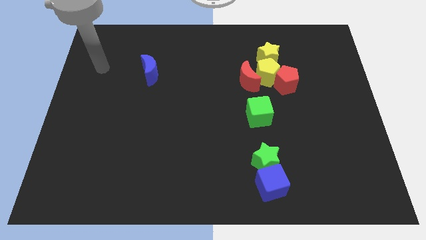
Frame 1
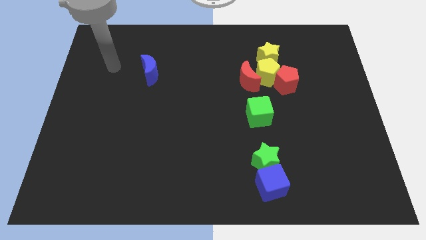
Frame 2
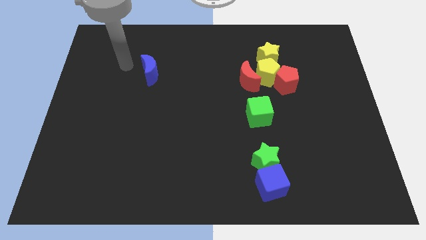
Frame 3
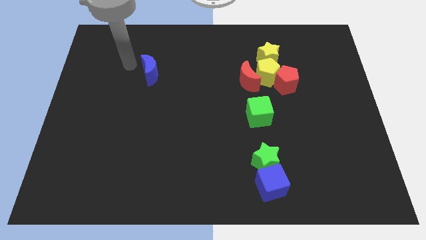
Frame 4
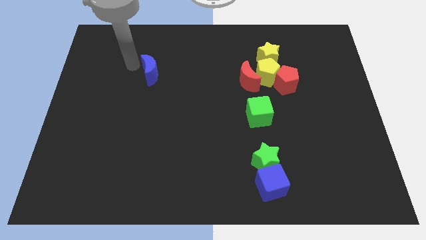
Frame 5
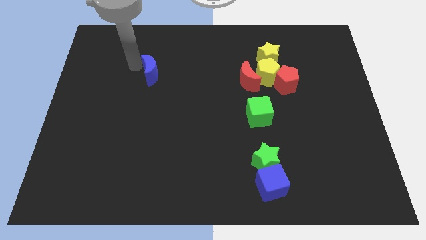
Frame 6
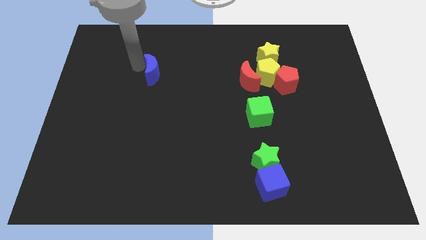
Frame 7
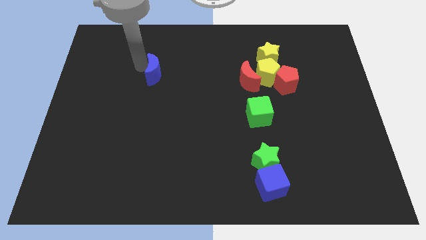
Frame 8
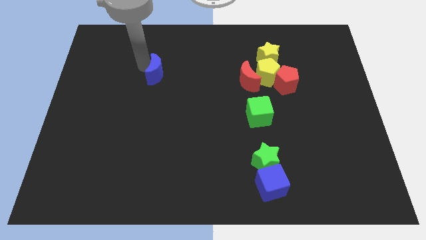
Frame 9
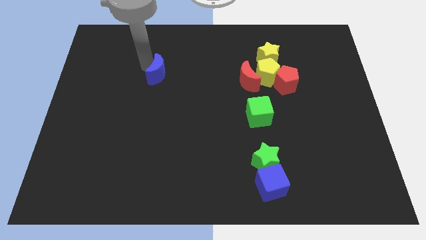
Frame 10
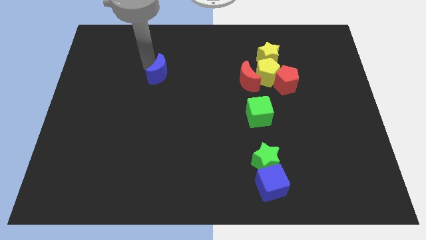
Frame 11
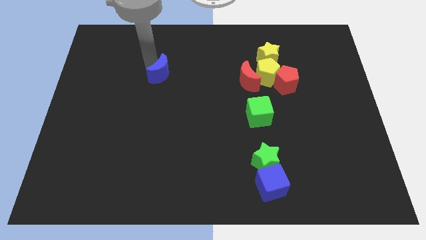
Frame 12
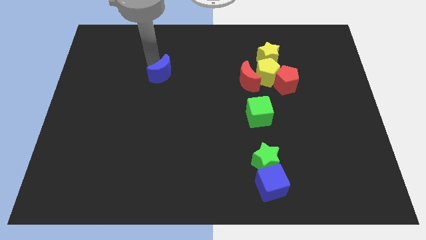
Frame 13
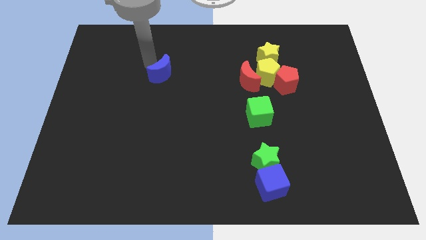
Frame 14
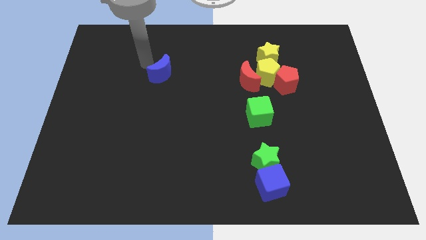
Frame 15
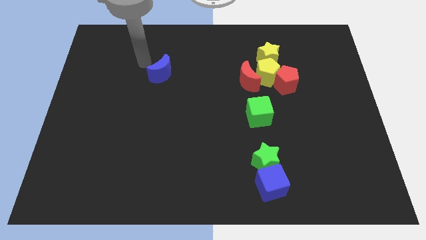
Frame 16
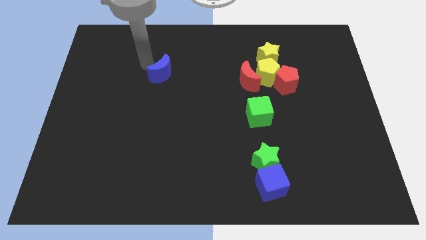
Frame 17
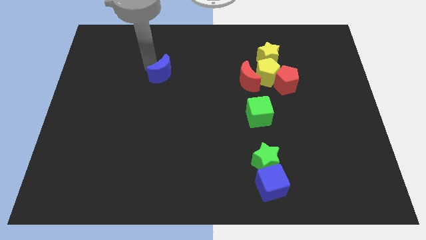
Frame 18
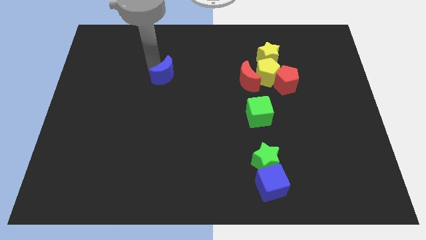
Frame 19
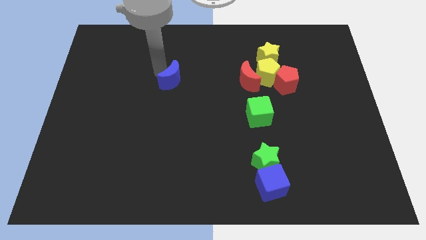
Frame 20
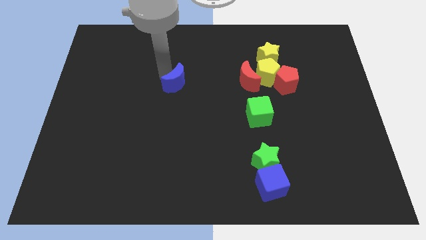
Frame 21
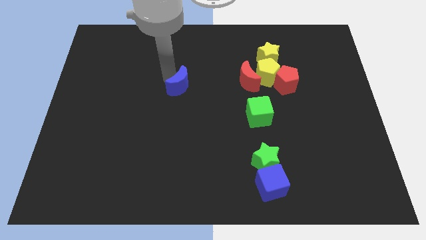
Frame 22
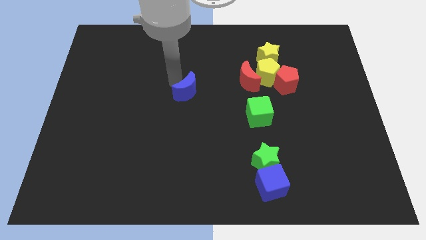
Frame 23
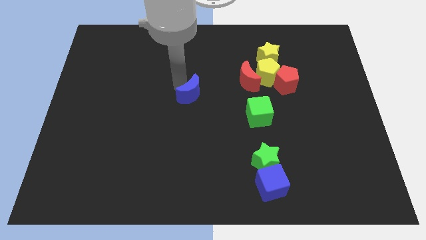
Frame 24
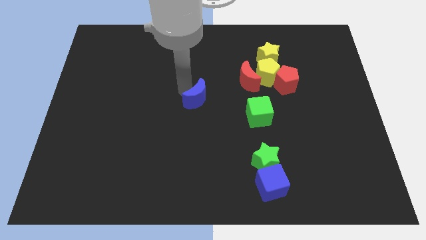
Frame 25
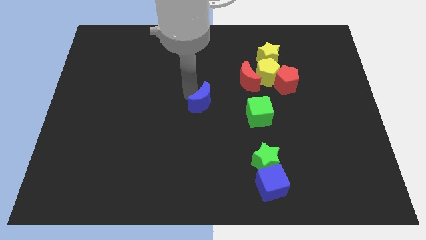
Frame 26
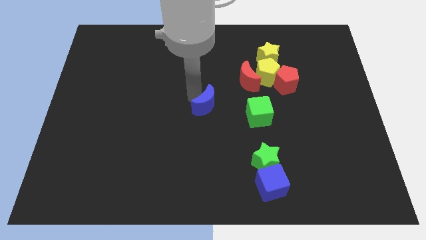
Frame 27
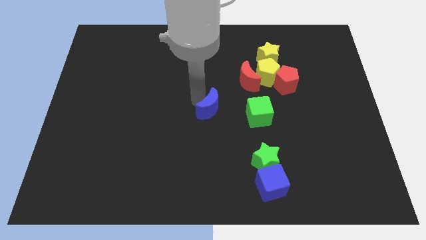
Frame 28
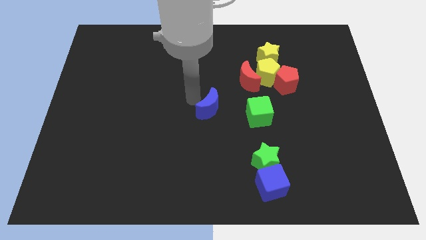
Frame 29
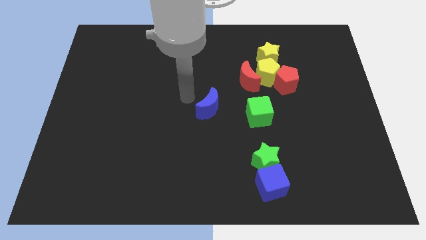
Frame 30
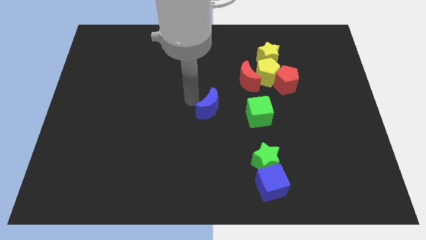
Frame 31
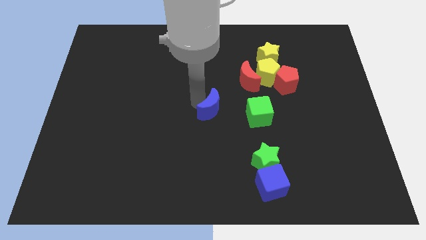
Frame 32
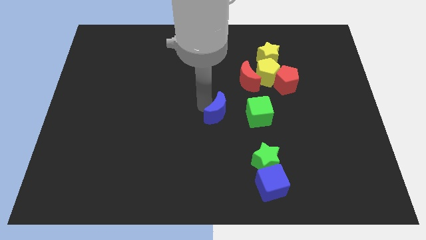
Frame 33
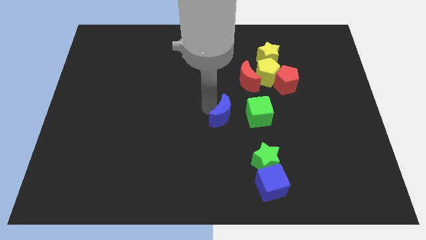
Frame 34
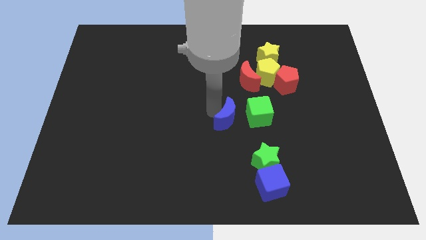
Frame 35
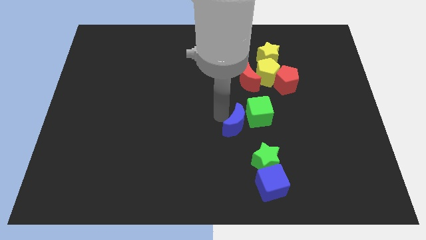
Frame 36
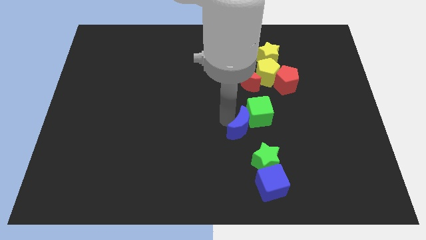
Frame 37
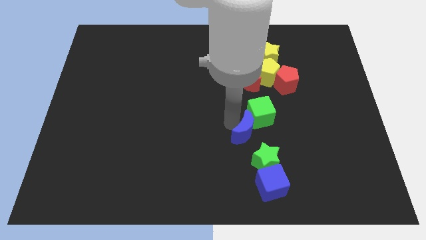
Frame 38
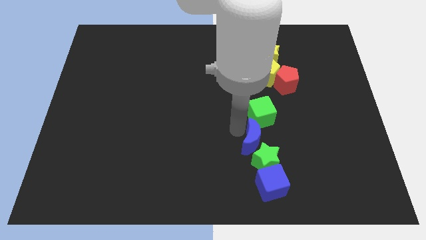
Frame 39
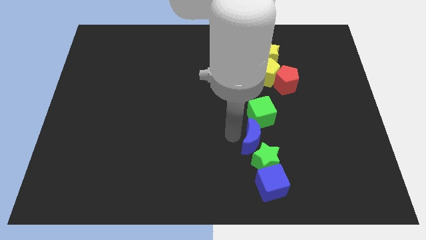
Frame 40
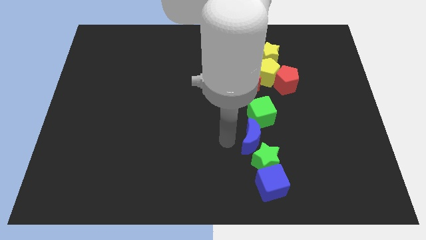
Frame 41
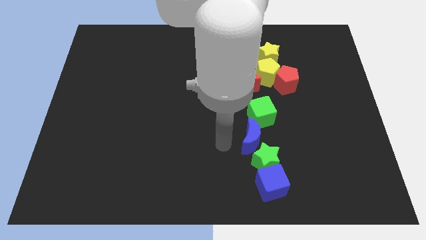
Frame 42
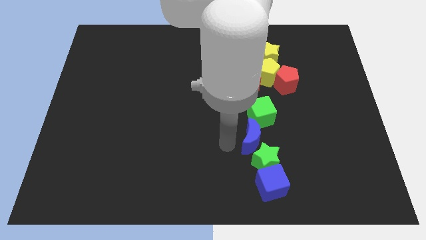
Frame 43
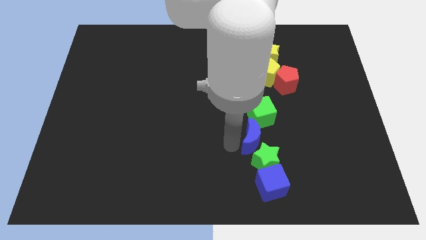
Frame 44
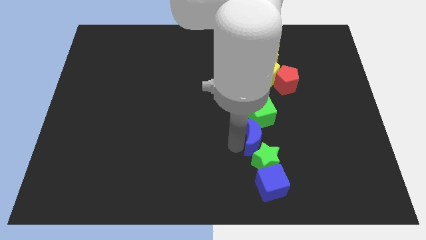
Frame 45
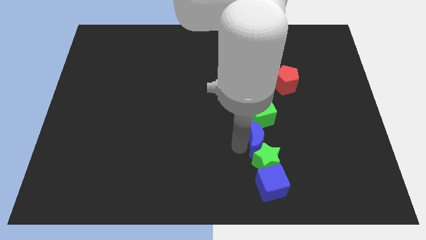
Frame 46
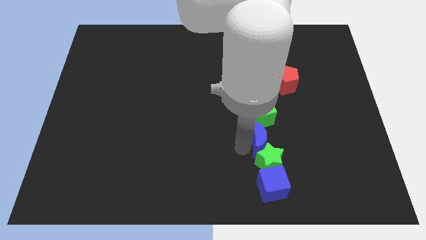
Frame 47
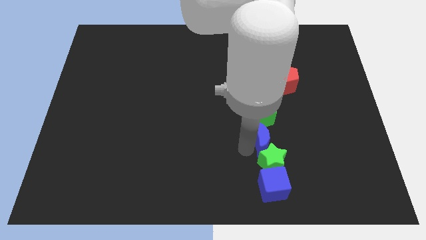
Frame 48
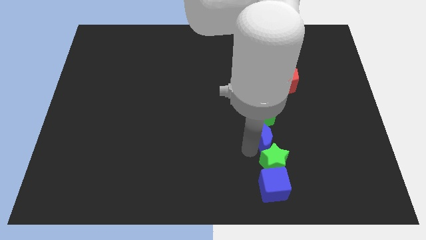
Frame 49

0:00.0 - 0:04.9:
slide the blue moon diagonally down and to the right of the green cube

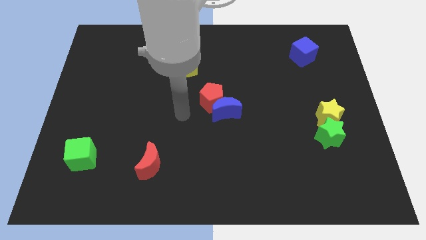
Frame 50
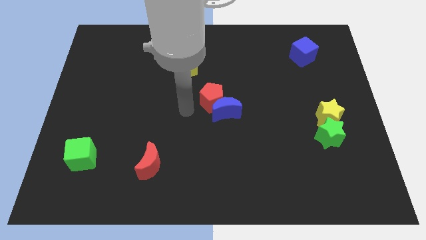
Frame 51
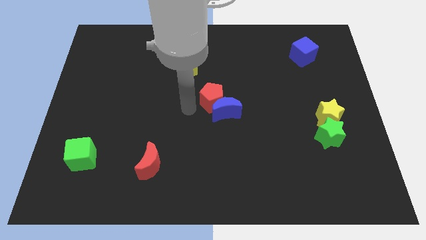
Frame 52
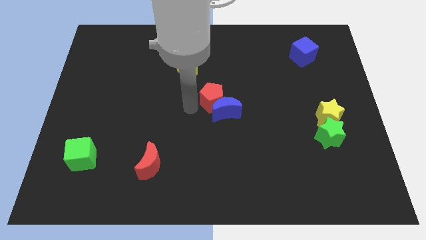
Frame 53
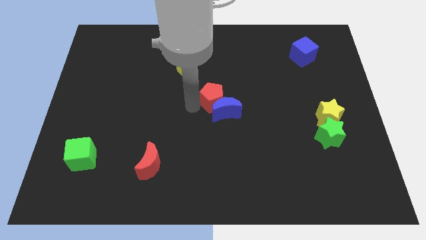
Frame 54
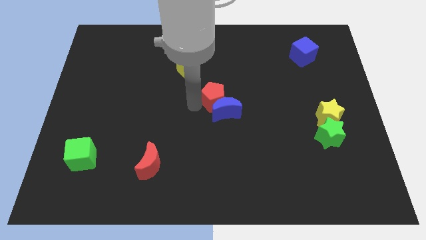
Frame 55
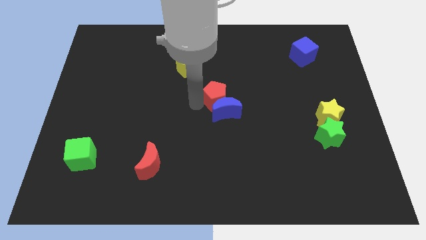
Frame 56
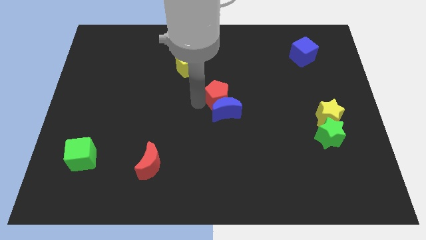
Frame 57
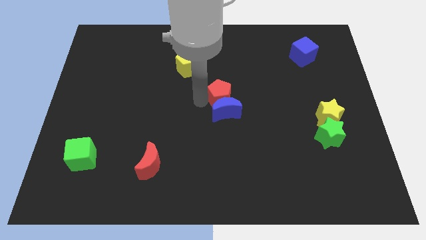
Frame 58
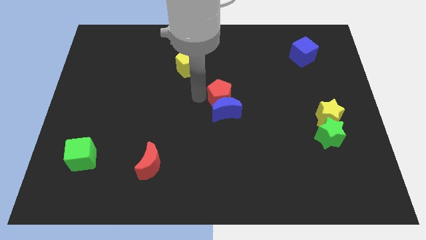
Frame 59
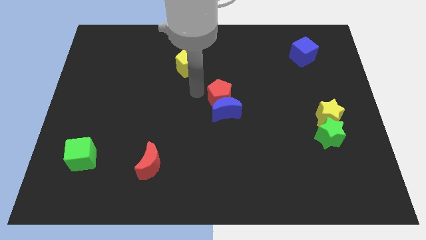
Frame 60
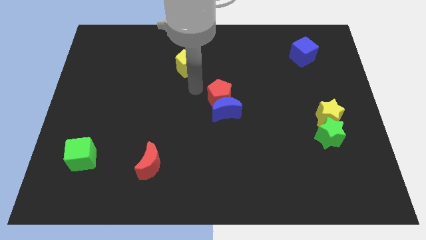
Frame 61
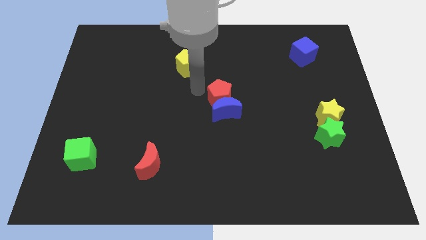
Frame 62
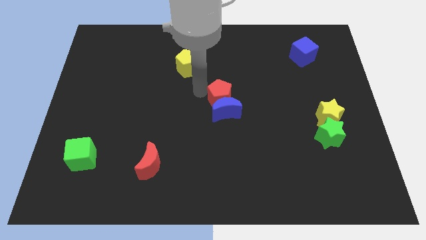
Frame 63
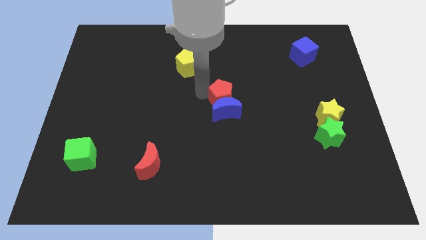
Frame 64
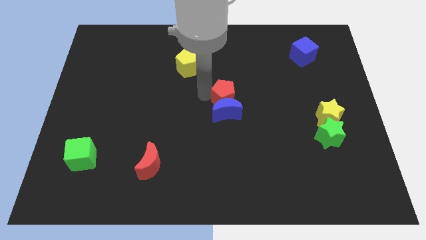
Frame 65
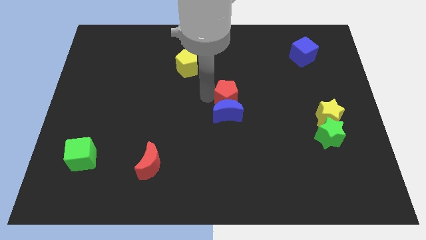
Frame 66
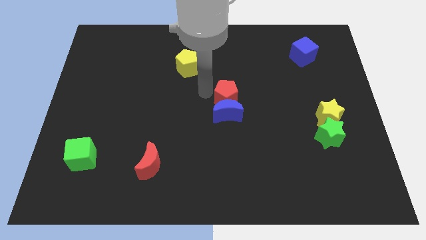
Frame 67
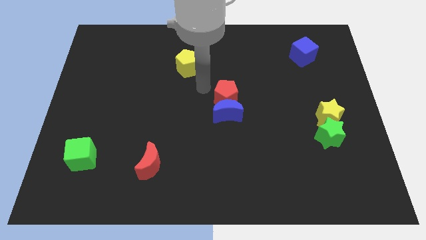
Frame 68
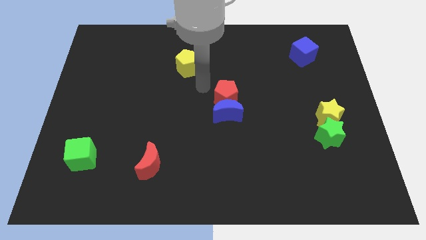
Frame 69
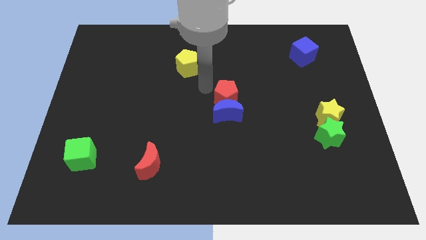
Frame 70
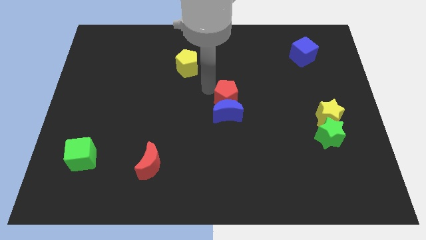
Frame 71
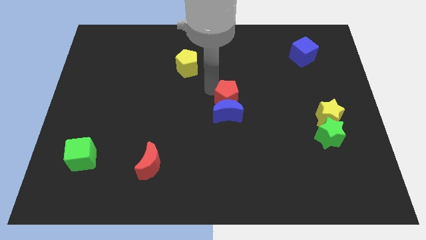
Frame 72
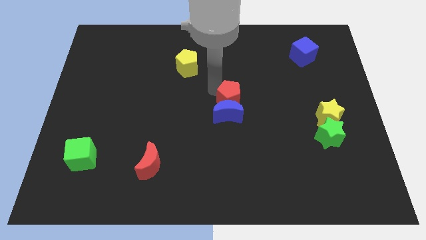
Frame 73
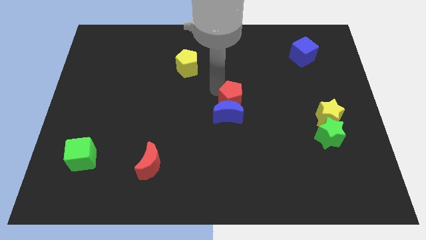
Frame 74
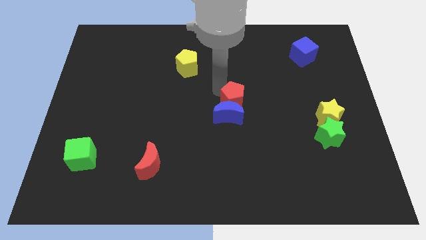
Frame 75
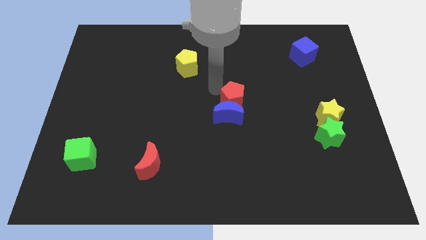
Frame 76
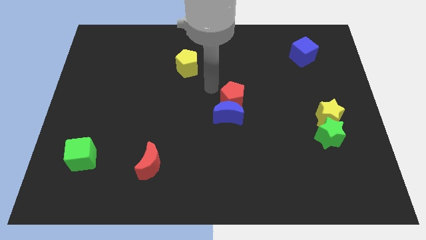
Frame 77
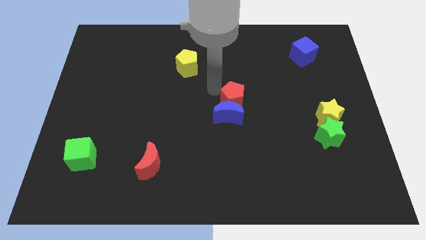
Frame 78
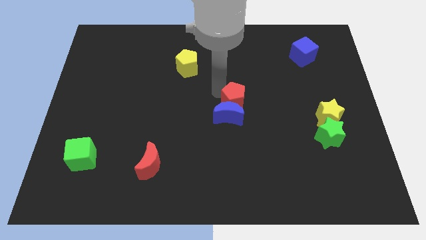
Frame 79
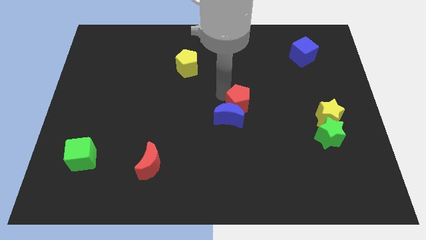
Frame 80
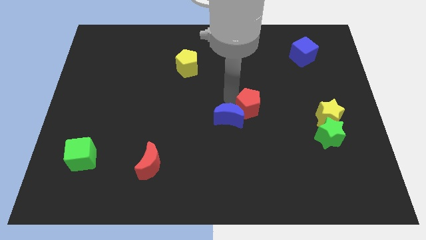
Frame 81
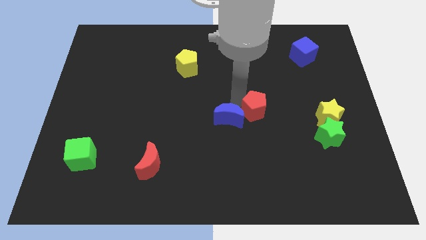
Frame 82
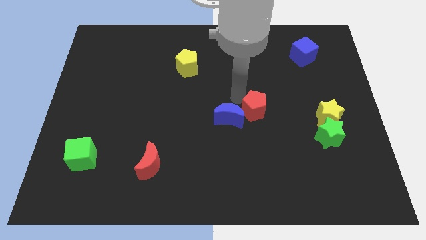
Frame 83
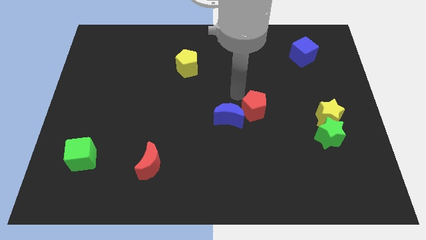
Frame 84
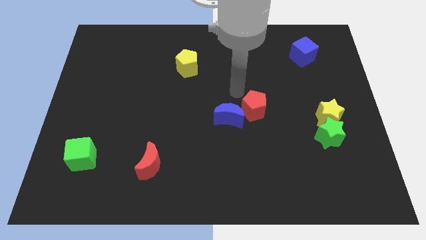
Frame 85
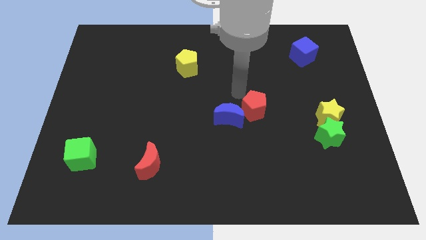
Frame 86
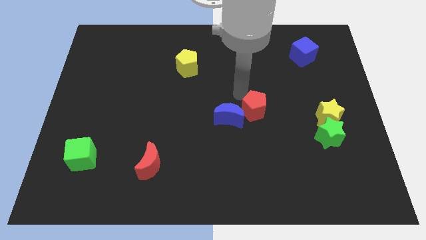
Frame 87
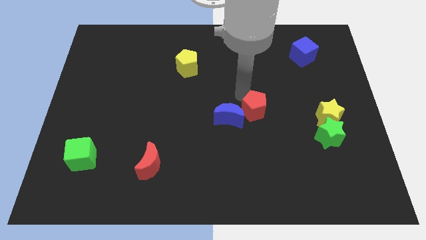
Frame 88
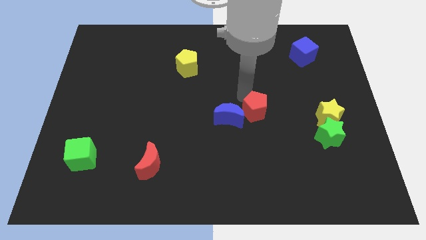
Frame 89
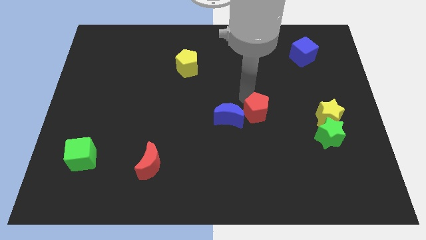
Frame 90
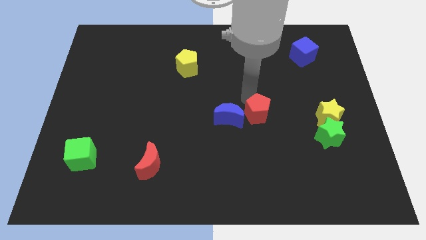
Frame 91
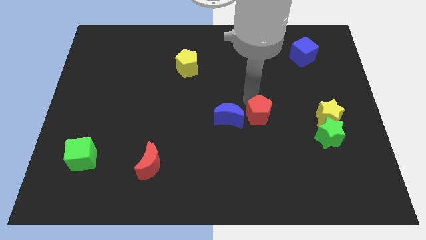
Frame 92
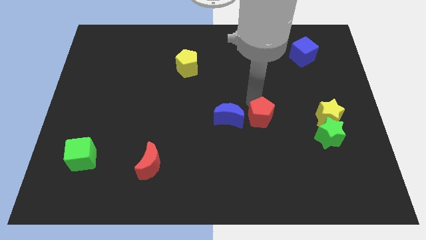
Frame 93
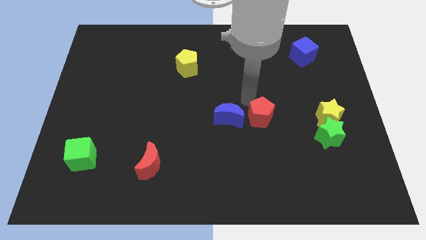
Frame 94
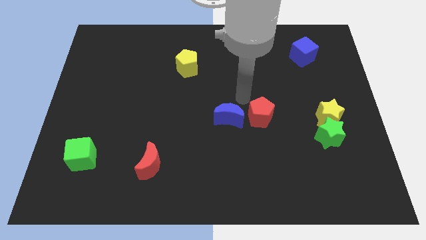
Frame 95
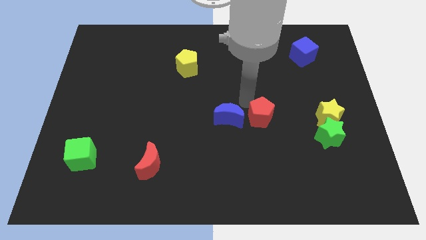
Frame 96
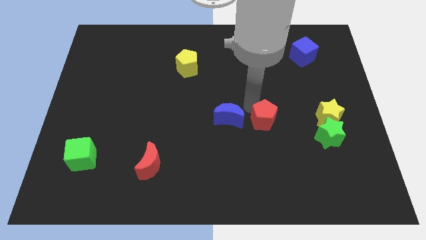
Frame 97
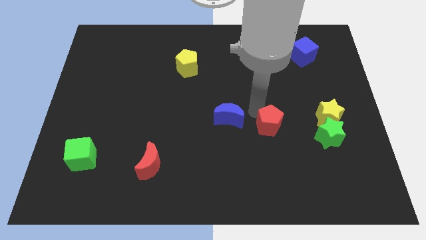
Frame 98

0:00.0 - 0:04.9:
move the red pentagon just left of the green star
